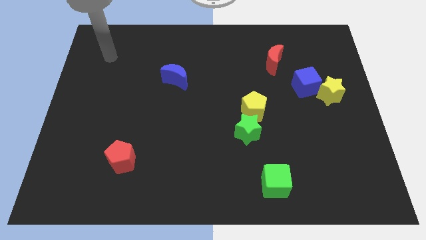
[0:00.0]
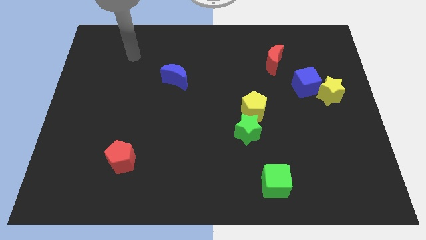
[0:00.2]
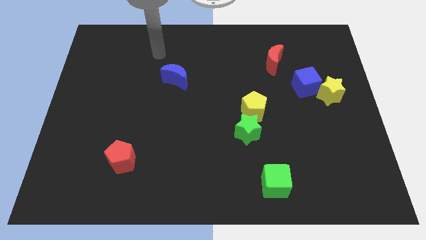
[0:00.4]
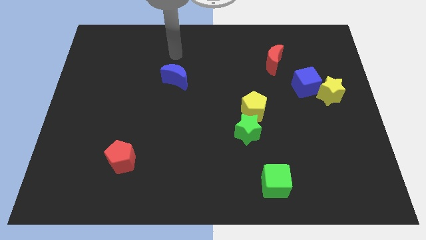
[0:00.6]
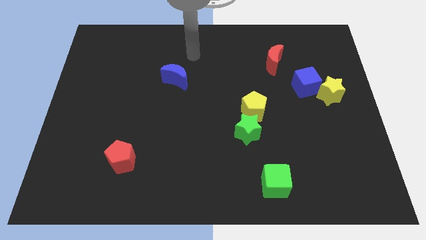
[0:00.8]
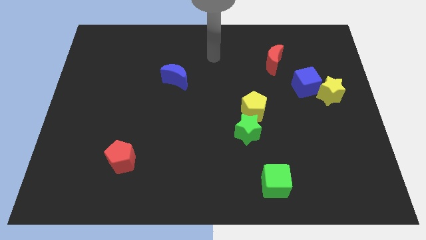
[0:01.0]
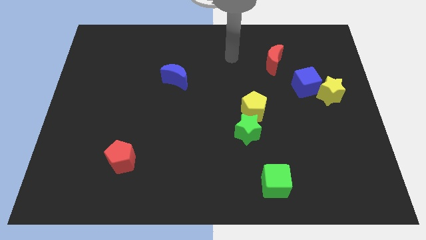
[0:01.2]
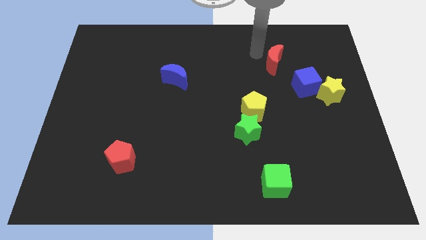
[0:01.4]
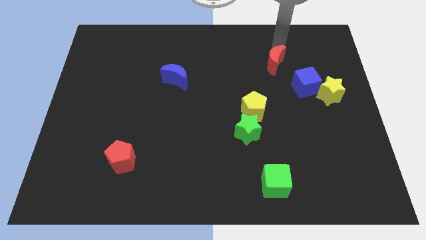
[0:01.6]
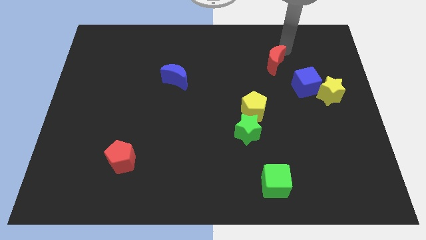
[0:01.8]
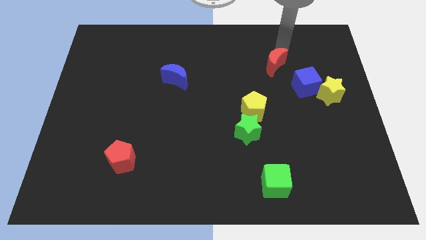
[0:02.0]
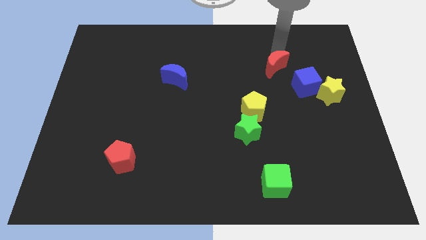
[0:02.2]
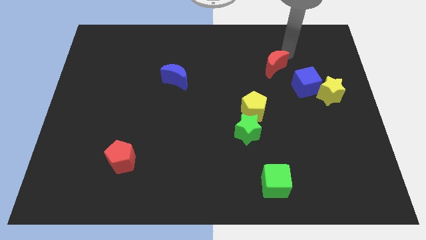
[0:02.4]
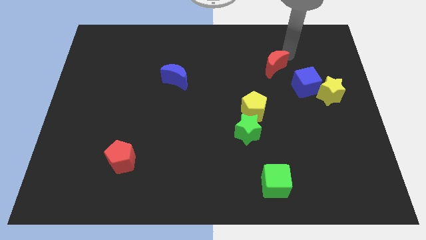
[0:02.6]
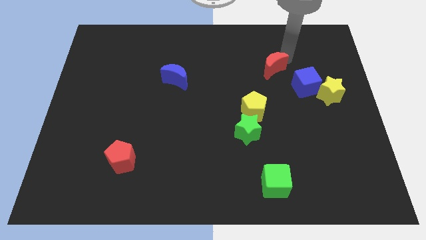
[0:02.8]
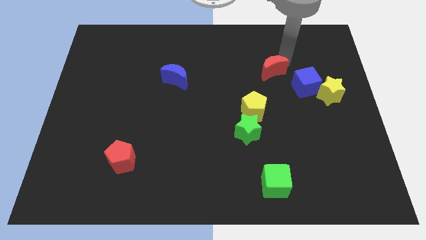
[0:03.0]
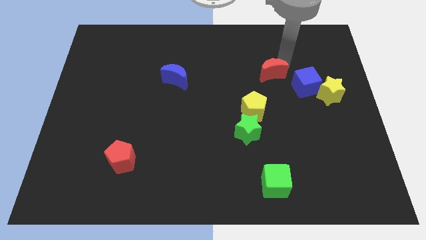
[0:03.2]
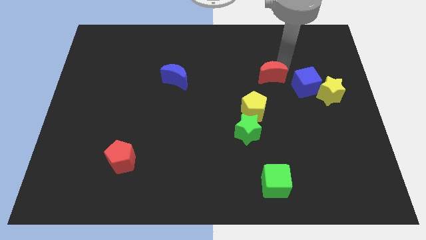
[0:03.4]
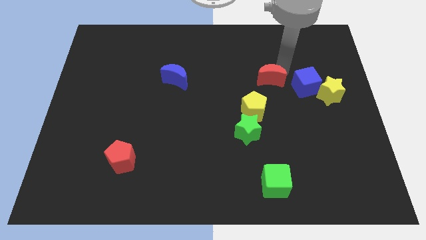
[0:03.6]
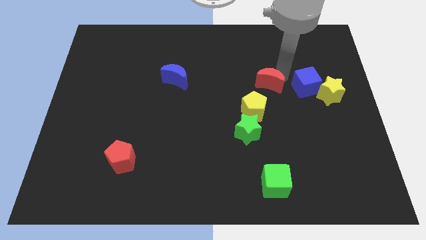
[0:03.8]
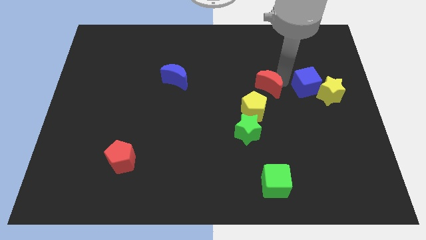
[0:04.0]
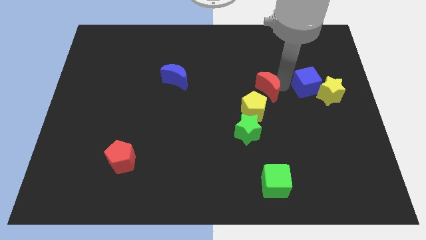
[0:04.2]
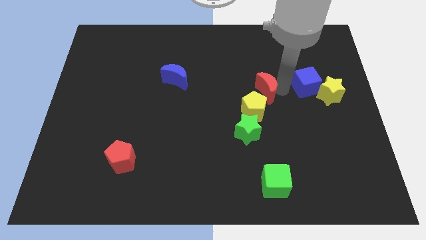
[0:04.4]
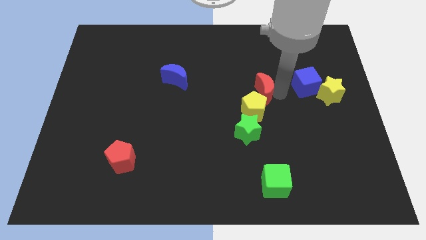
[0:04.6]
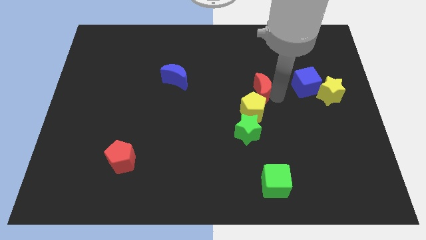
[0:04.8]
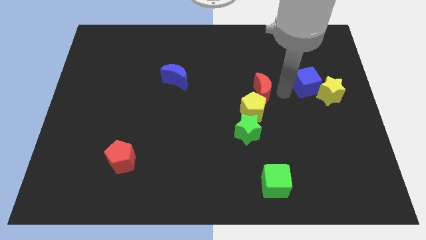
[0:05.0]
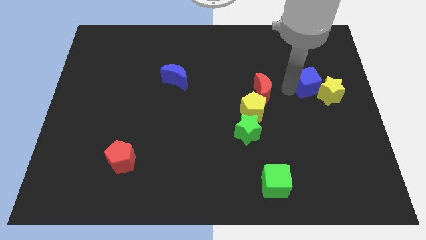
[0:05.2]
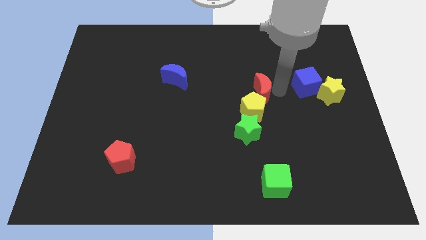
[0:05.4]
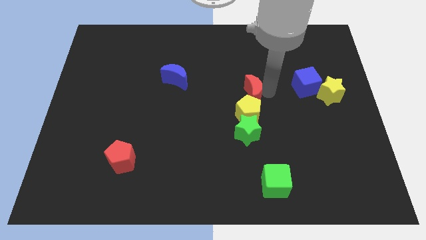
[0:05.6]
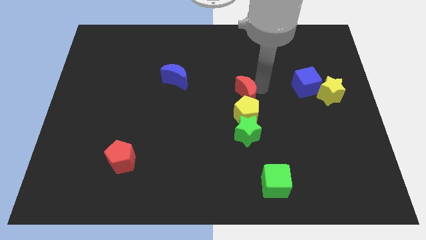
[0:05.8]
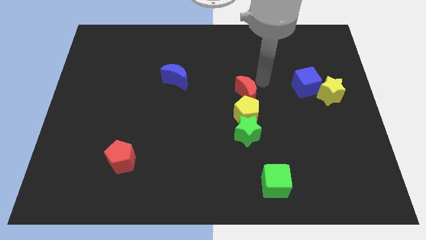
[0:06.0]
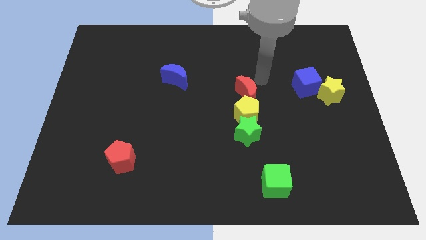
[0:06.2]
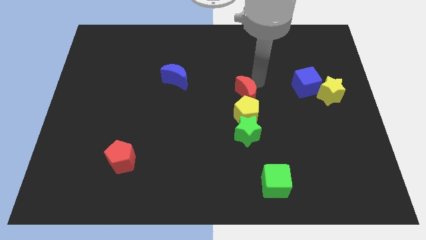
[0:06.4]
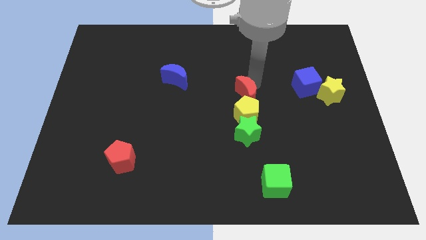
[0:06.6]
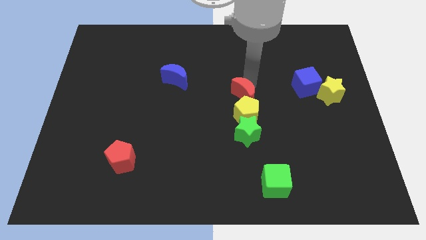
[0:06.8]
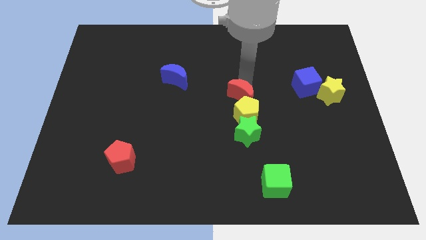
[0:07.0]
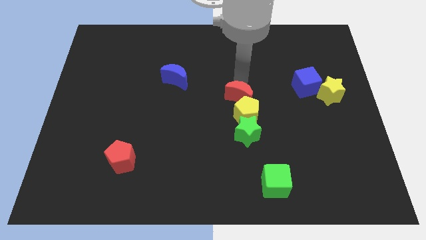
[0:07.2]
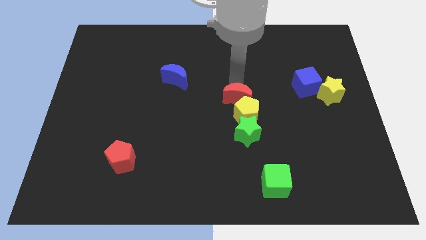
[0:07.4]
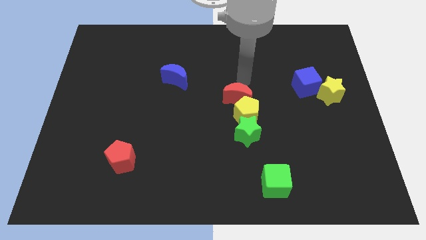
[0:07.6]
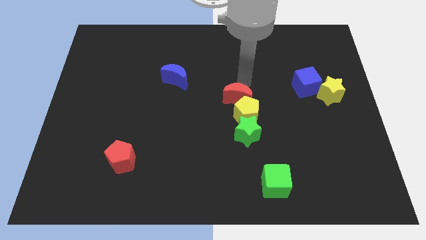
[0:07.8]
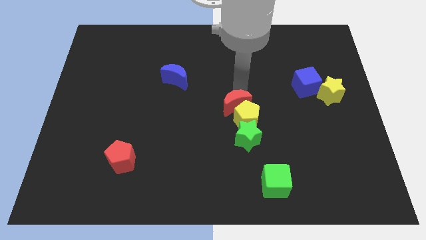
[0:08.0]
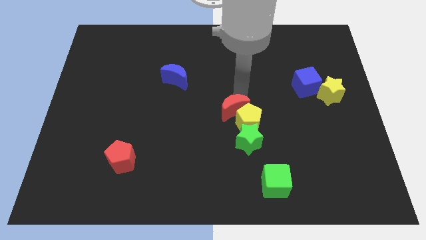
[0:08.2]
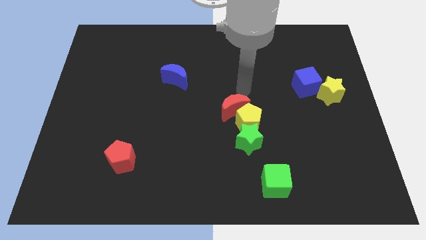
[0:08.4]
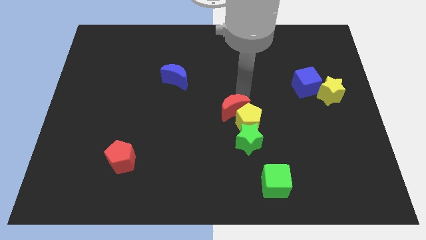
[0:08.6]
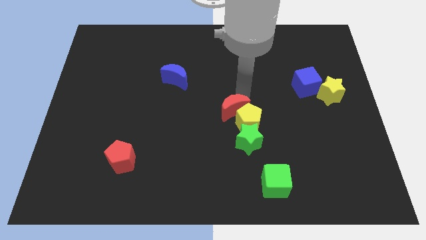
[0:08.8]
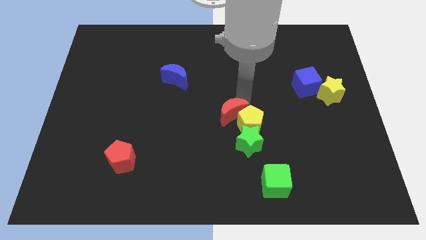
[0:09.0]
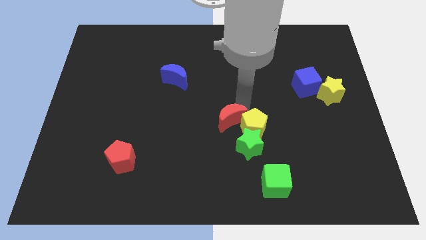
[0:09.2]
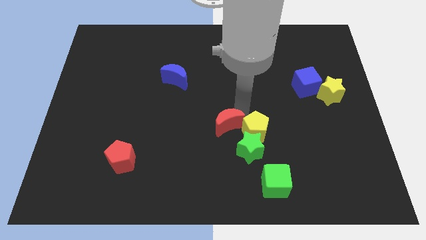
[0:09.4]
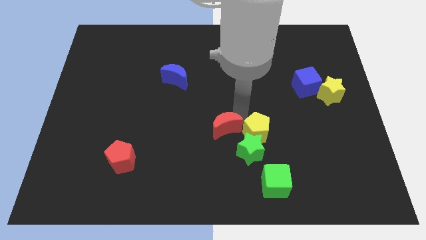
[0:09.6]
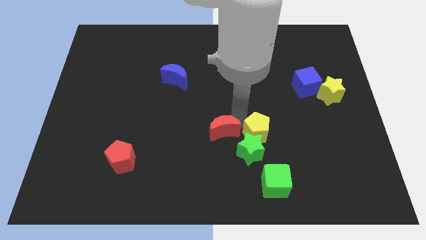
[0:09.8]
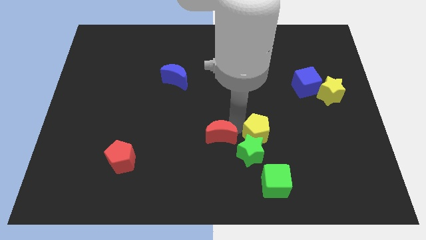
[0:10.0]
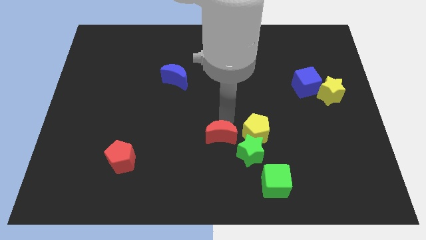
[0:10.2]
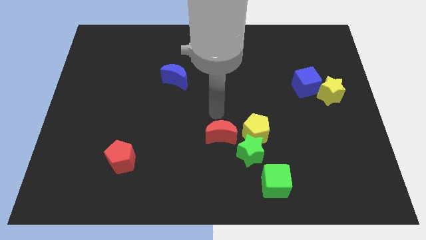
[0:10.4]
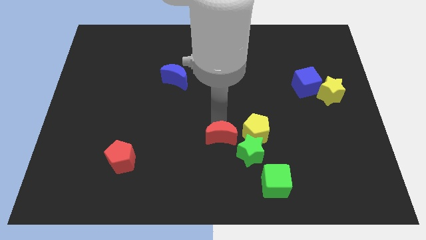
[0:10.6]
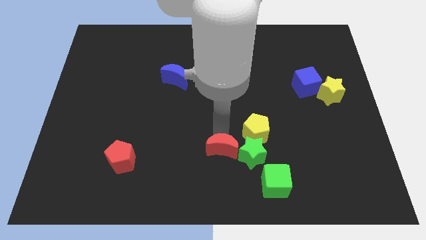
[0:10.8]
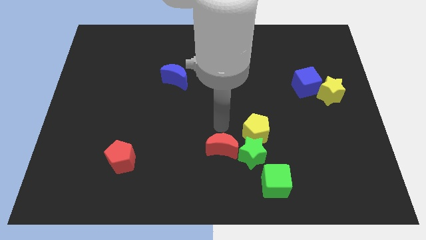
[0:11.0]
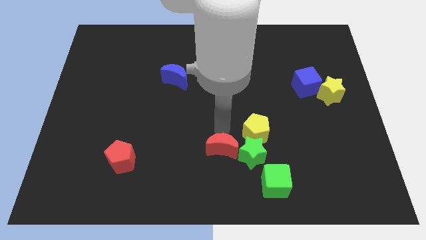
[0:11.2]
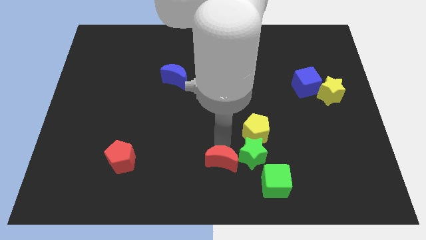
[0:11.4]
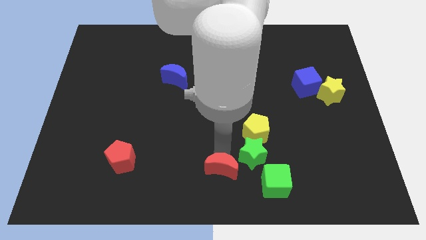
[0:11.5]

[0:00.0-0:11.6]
push the red moon just left of the green cube

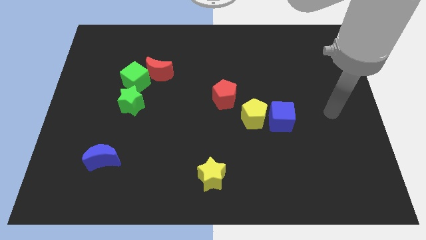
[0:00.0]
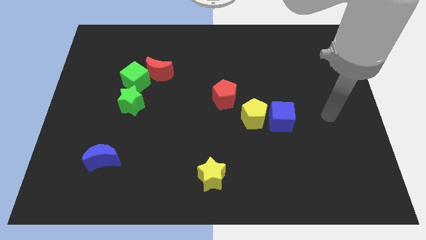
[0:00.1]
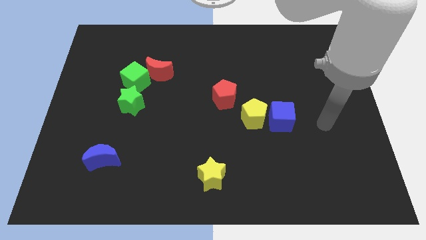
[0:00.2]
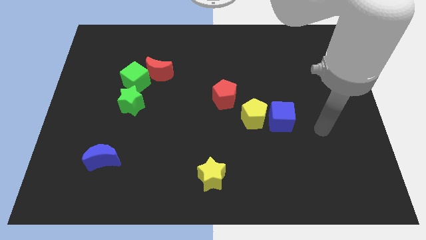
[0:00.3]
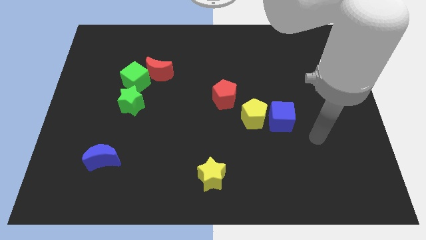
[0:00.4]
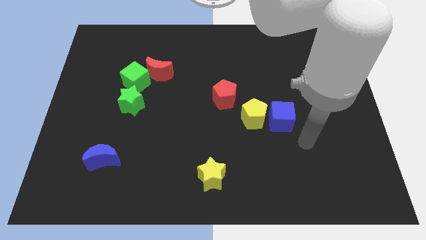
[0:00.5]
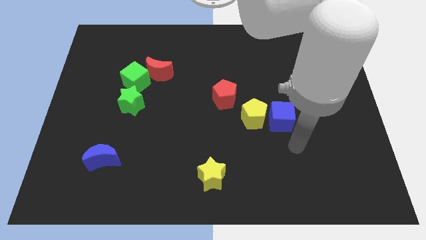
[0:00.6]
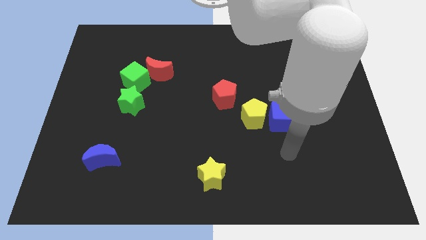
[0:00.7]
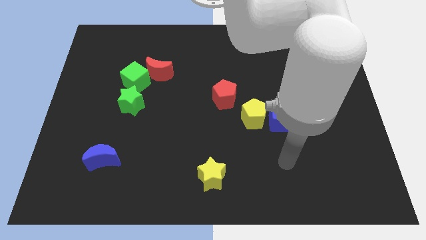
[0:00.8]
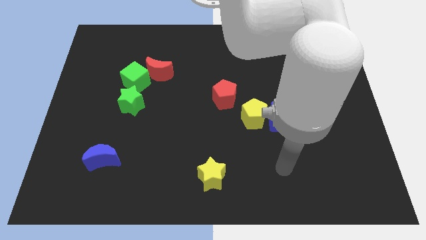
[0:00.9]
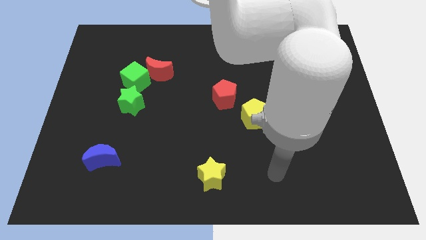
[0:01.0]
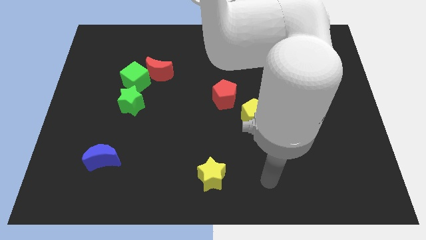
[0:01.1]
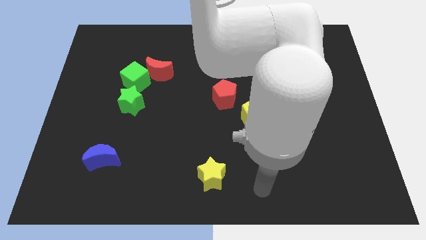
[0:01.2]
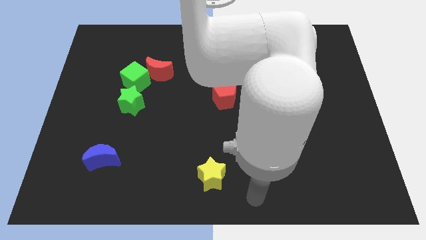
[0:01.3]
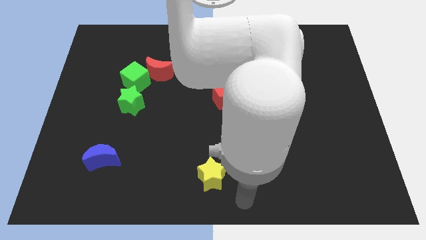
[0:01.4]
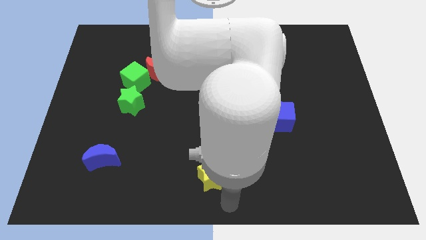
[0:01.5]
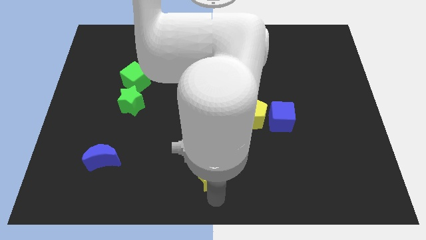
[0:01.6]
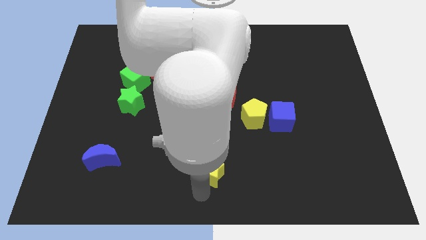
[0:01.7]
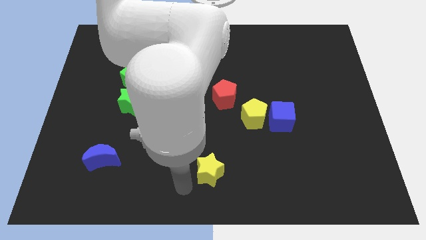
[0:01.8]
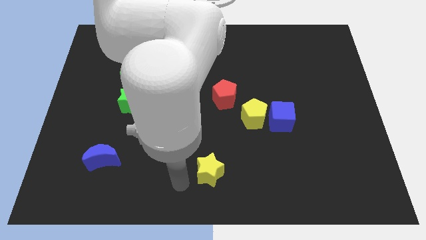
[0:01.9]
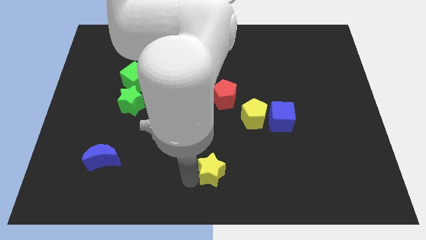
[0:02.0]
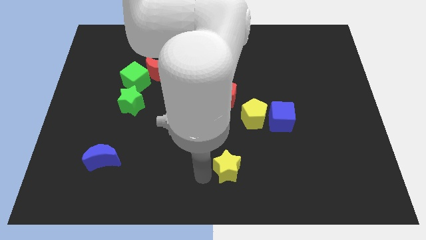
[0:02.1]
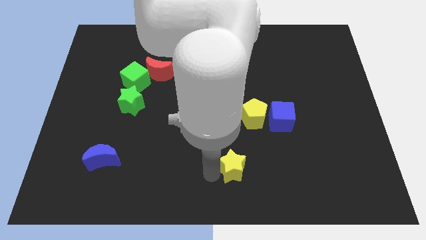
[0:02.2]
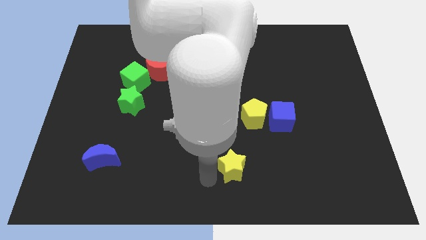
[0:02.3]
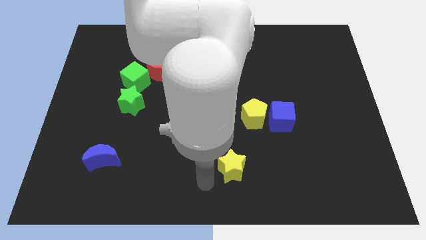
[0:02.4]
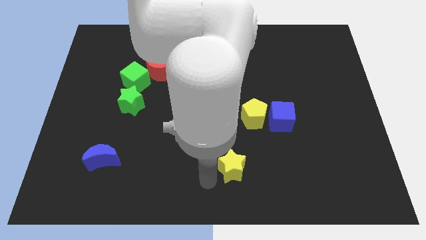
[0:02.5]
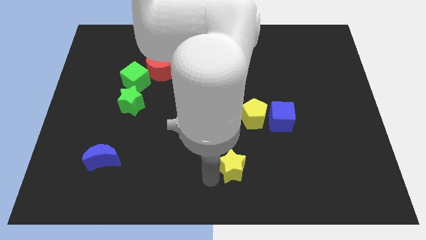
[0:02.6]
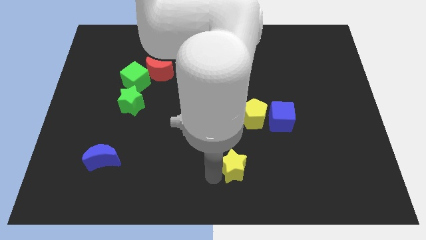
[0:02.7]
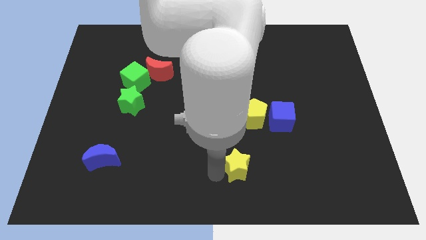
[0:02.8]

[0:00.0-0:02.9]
put the yellow star to the bottom of the yellow pentagon
